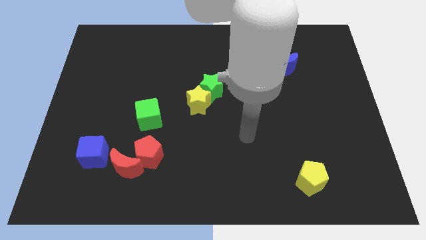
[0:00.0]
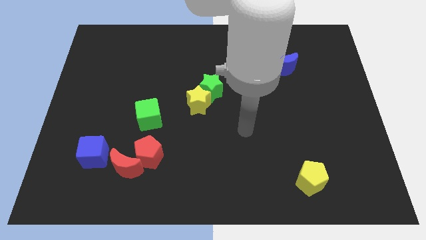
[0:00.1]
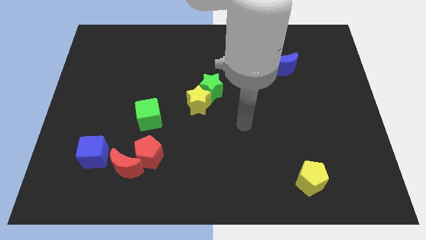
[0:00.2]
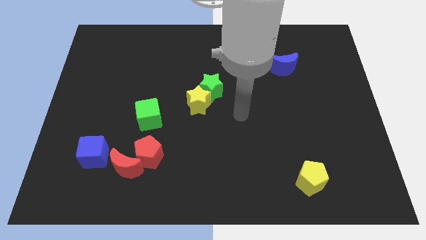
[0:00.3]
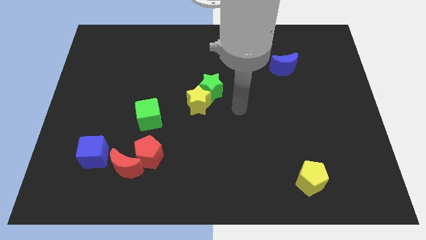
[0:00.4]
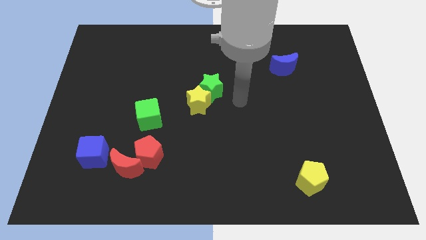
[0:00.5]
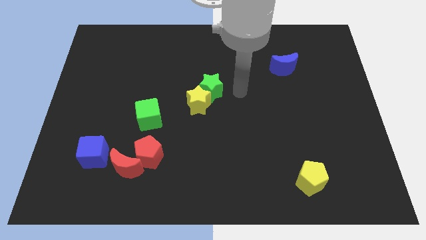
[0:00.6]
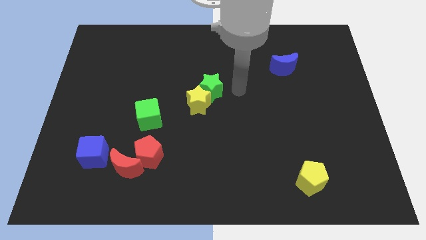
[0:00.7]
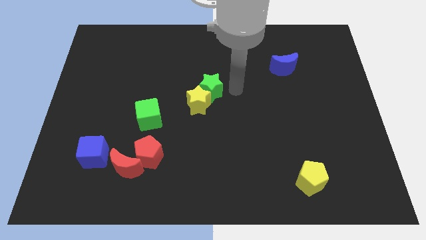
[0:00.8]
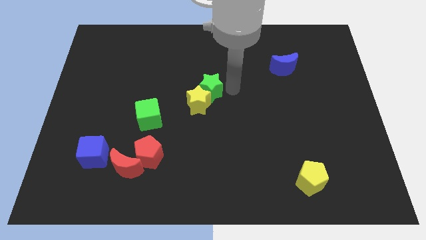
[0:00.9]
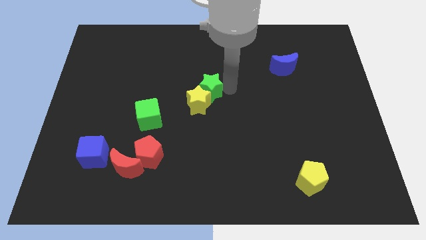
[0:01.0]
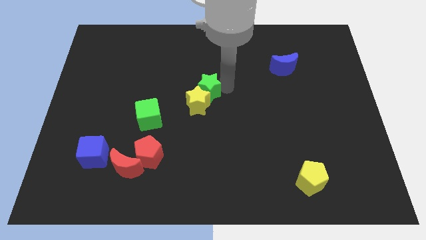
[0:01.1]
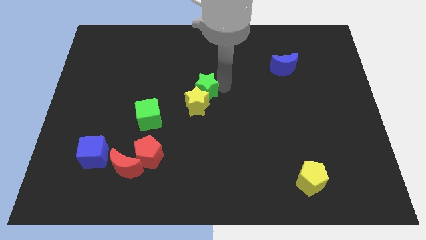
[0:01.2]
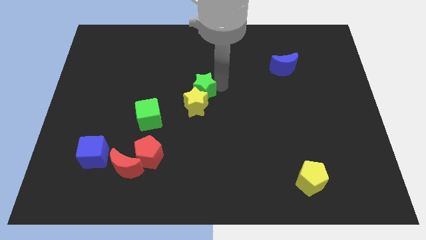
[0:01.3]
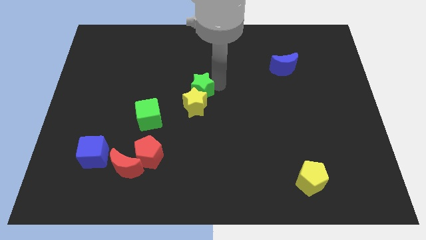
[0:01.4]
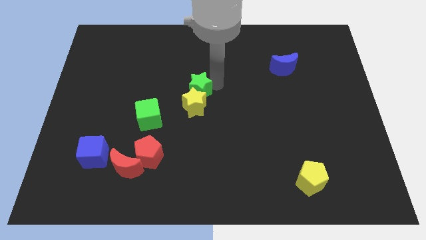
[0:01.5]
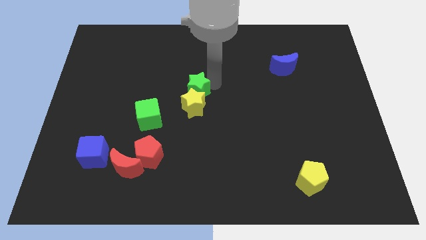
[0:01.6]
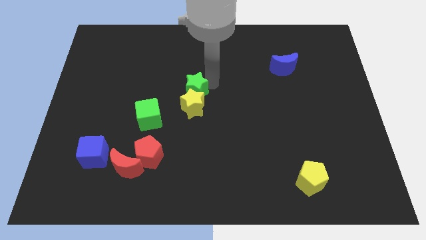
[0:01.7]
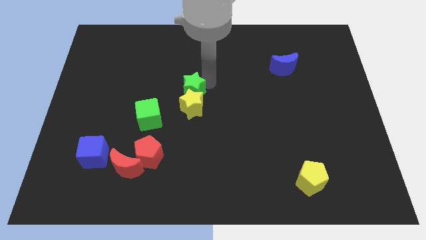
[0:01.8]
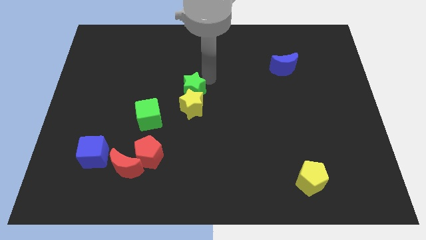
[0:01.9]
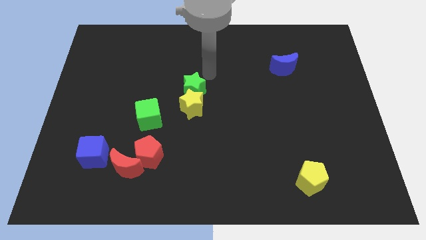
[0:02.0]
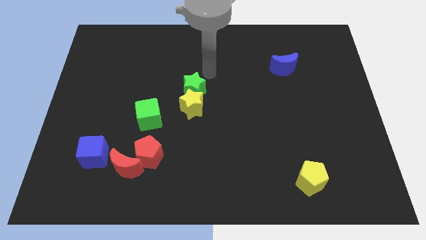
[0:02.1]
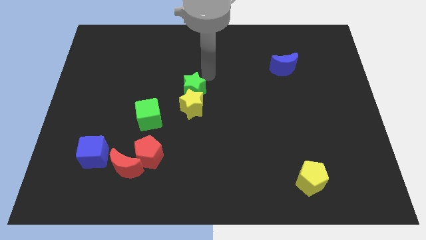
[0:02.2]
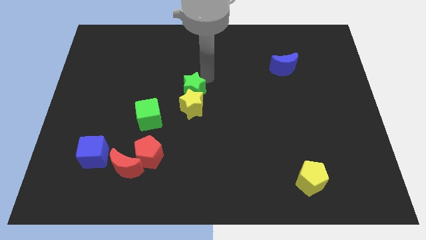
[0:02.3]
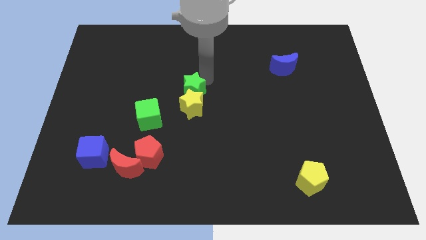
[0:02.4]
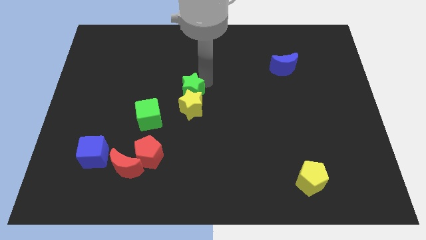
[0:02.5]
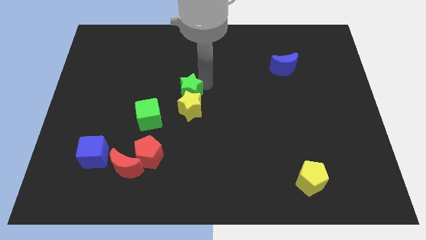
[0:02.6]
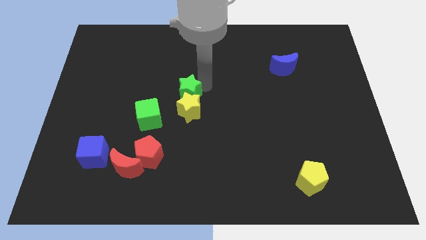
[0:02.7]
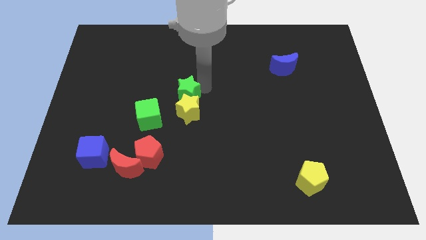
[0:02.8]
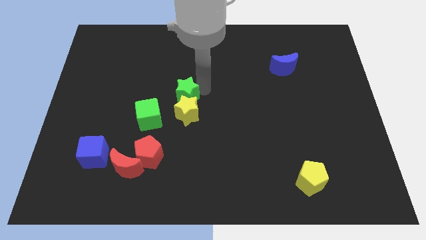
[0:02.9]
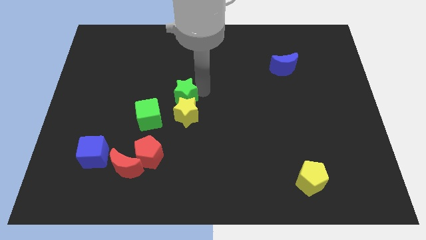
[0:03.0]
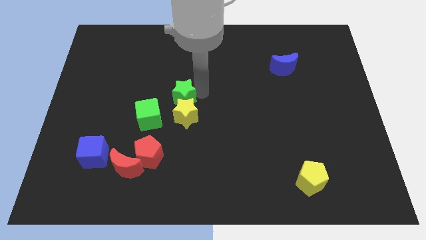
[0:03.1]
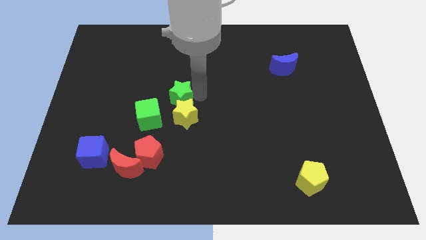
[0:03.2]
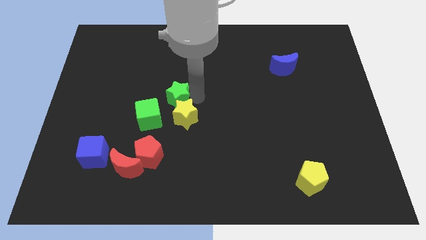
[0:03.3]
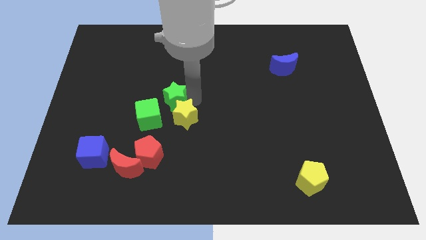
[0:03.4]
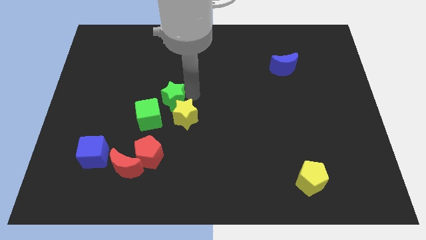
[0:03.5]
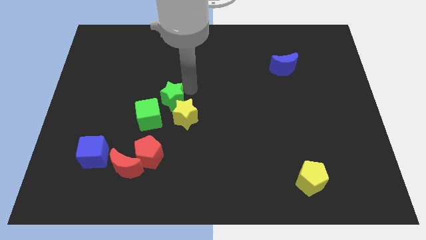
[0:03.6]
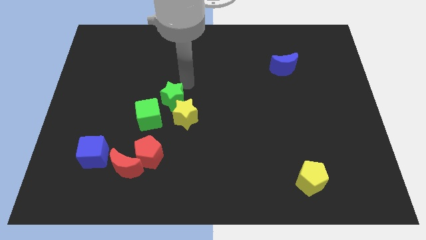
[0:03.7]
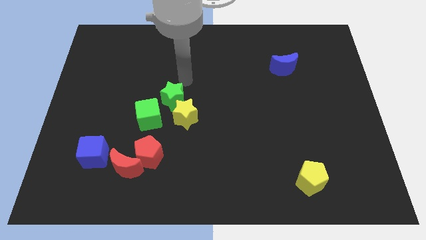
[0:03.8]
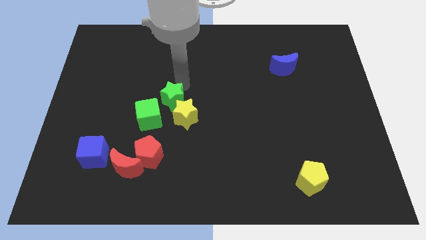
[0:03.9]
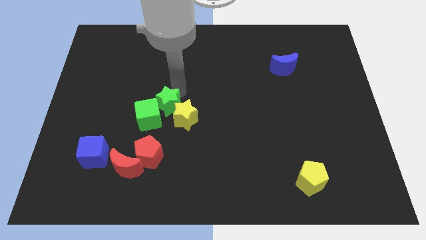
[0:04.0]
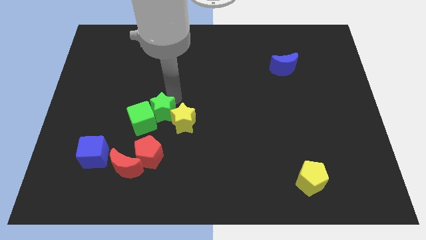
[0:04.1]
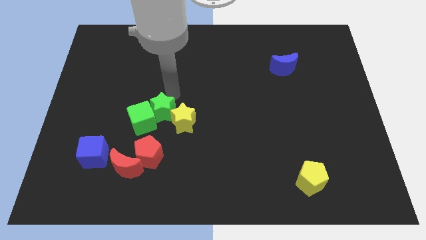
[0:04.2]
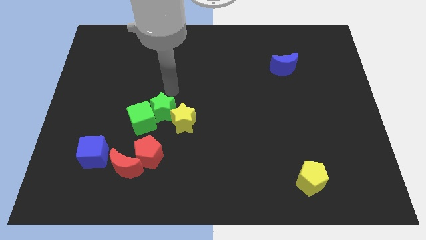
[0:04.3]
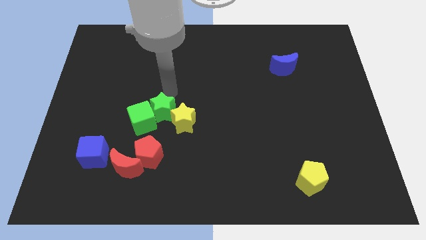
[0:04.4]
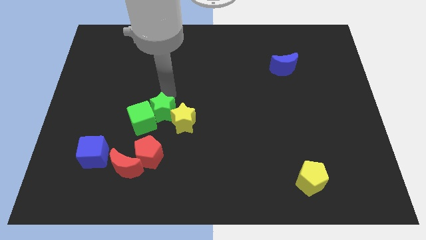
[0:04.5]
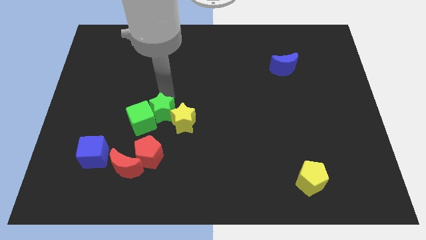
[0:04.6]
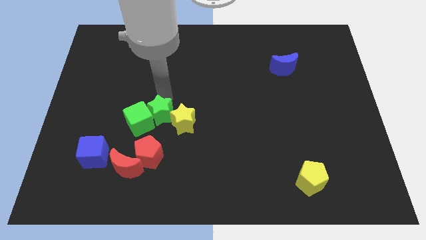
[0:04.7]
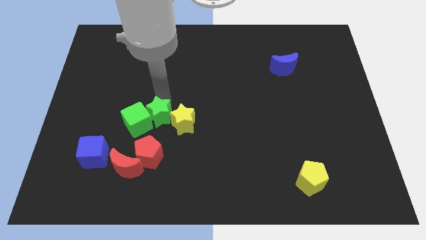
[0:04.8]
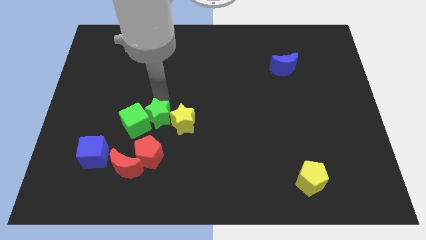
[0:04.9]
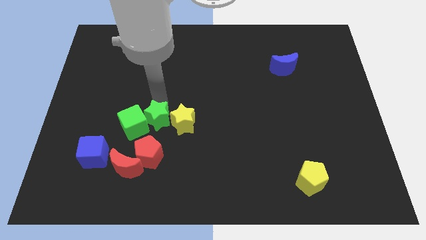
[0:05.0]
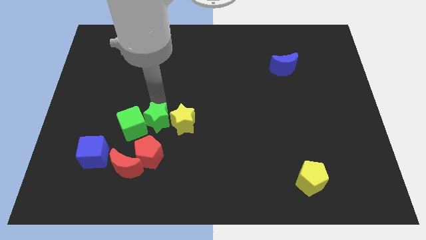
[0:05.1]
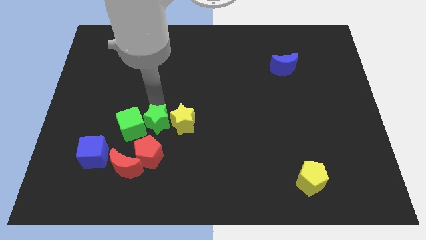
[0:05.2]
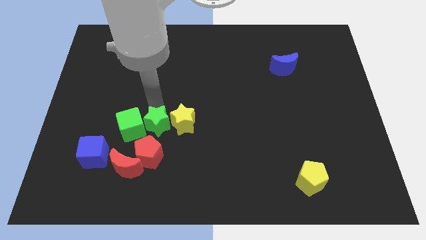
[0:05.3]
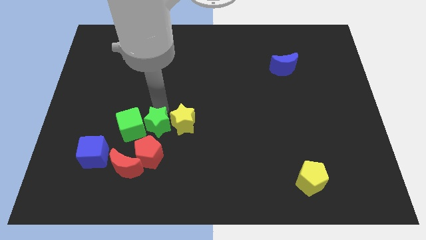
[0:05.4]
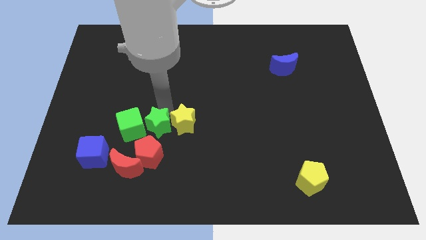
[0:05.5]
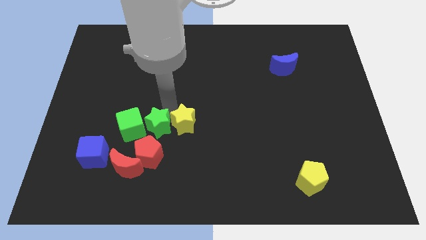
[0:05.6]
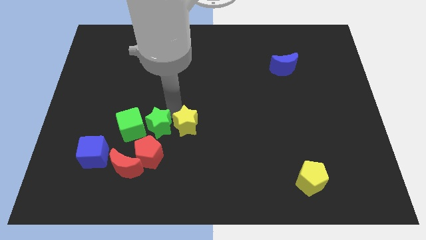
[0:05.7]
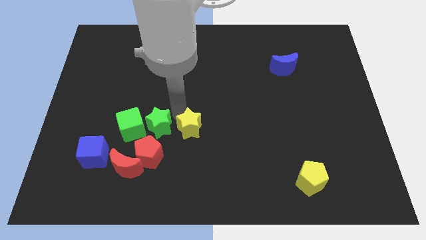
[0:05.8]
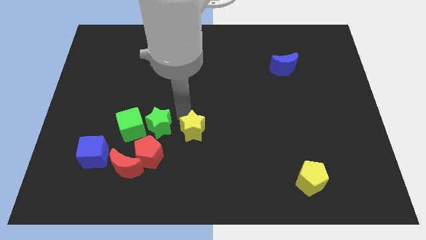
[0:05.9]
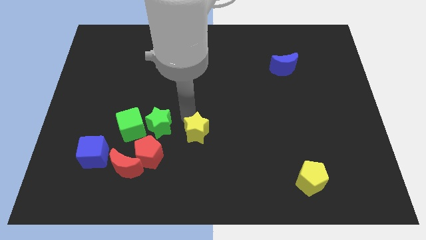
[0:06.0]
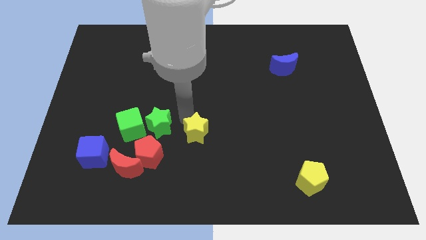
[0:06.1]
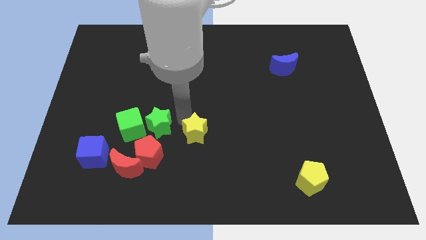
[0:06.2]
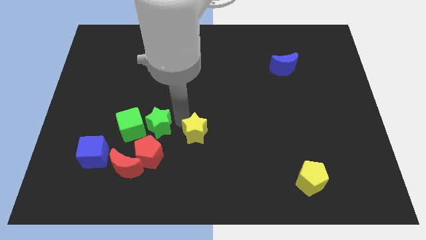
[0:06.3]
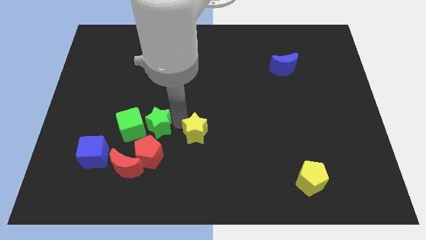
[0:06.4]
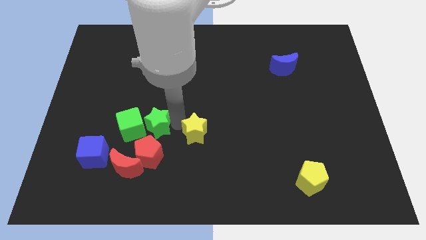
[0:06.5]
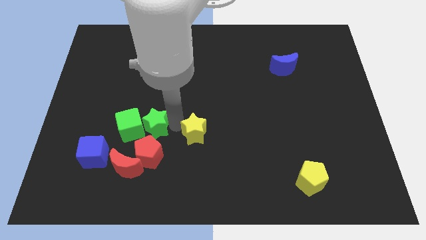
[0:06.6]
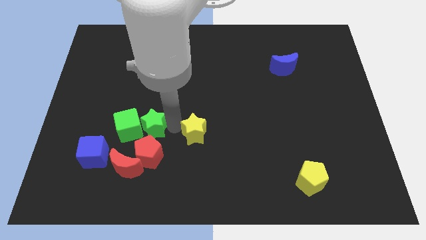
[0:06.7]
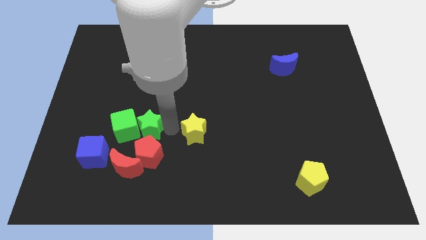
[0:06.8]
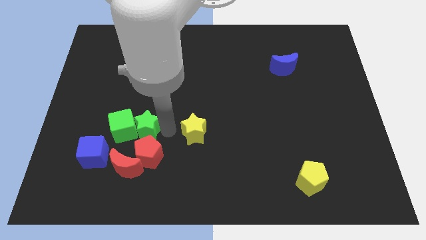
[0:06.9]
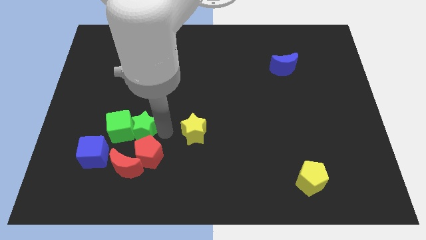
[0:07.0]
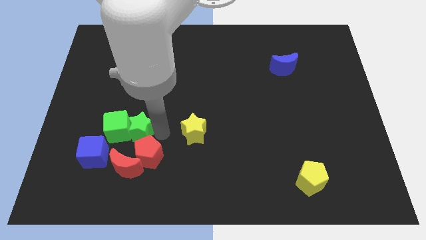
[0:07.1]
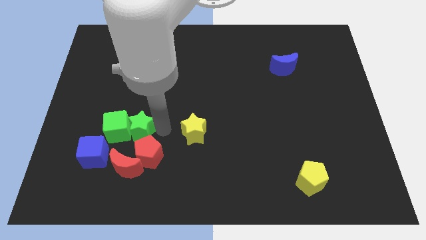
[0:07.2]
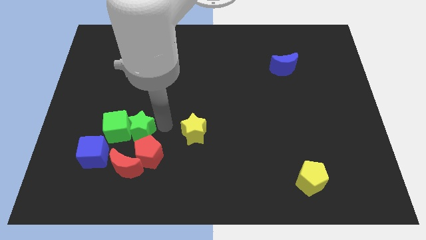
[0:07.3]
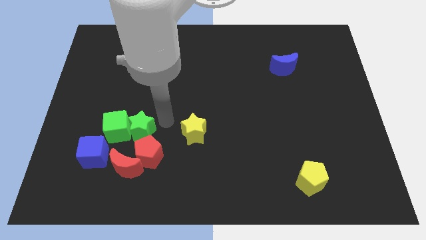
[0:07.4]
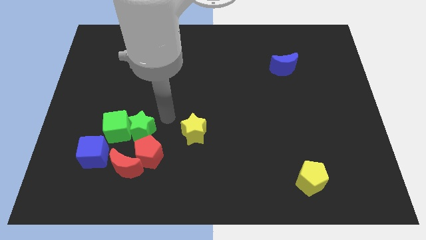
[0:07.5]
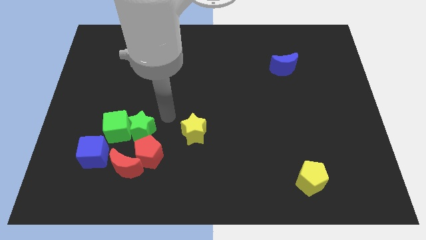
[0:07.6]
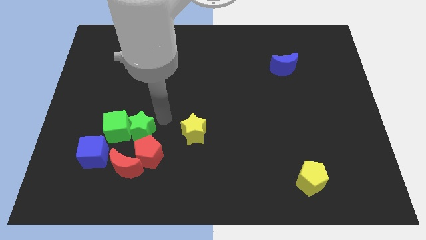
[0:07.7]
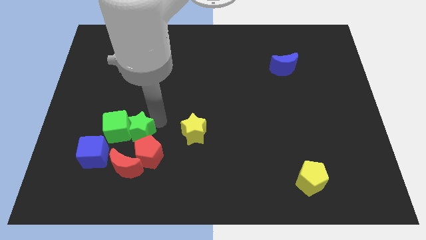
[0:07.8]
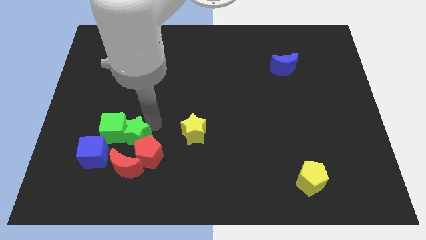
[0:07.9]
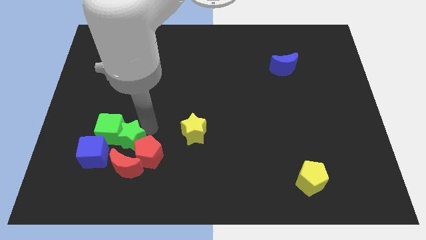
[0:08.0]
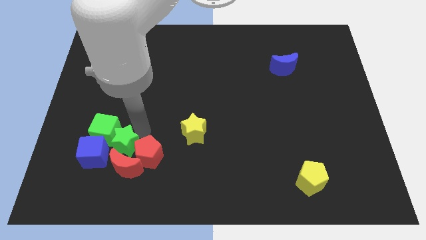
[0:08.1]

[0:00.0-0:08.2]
move the green star to the red moon
